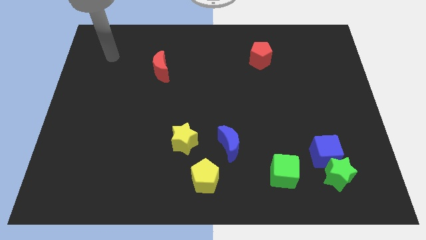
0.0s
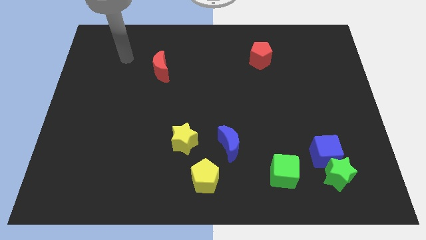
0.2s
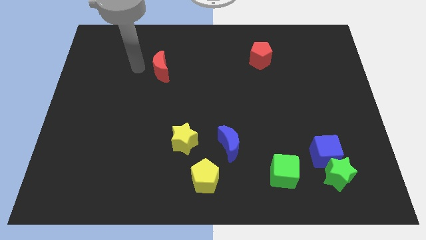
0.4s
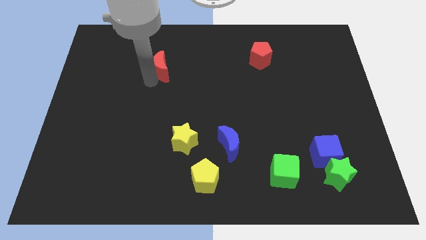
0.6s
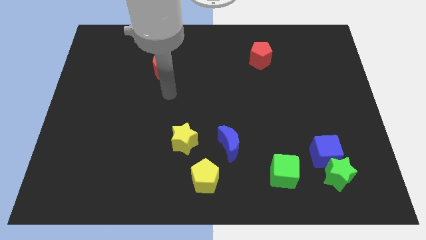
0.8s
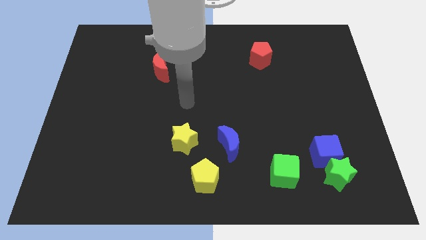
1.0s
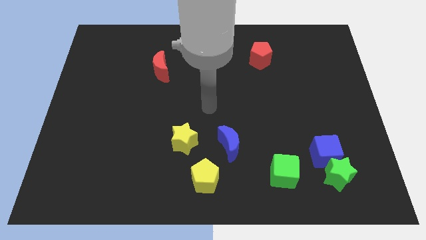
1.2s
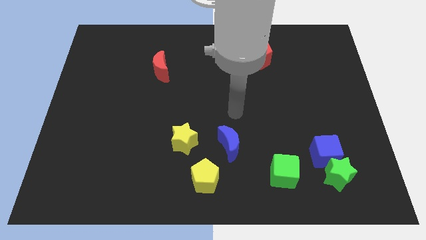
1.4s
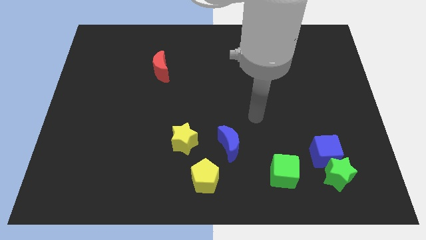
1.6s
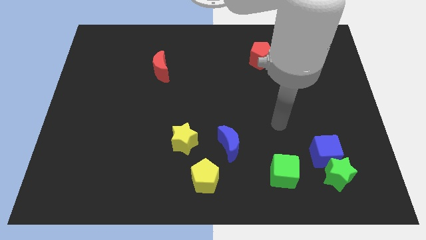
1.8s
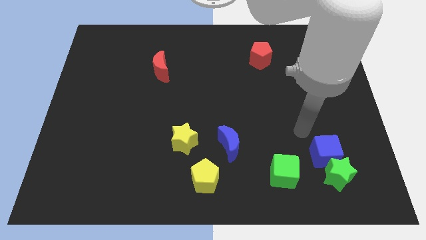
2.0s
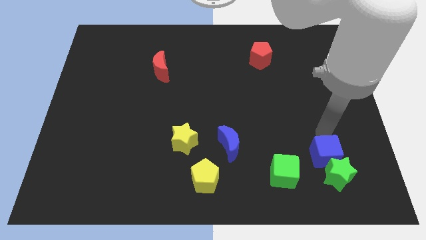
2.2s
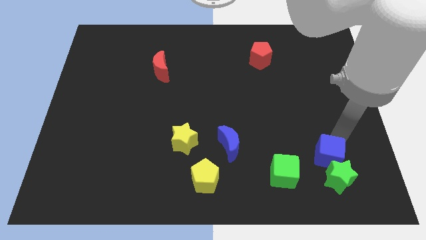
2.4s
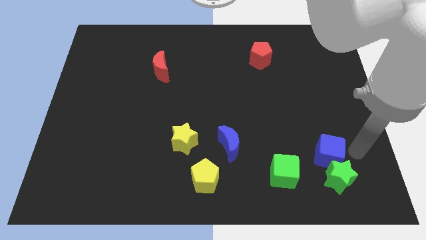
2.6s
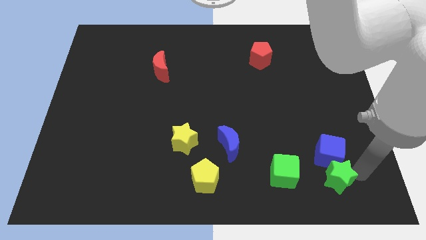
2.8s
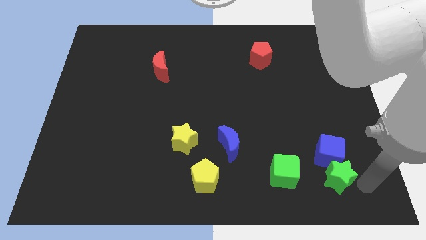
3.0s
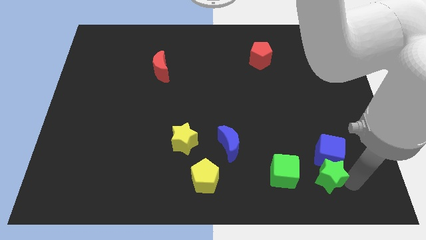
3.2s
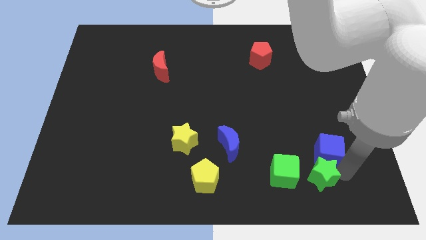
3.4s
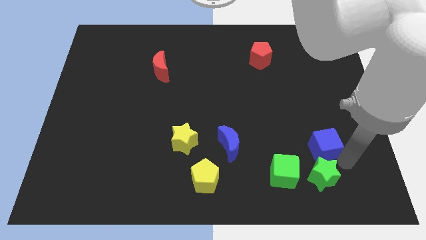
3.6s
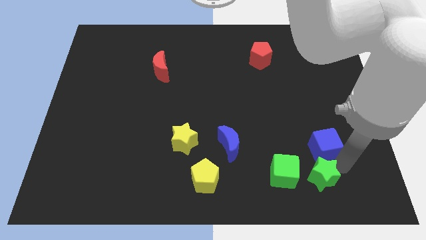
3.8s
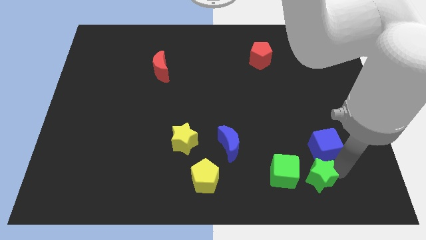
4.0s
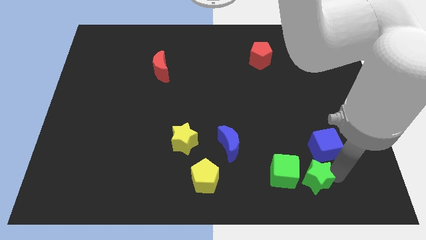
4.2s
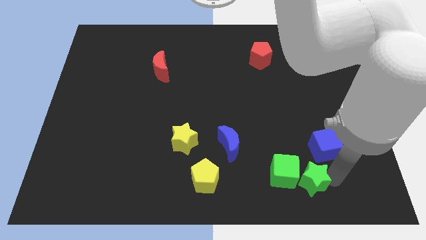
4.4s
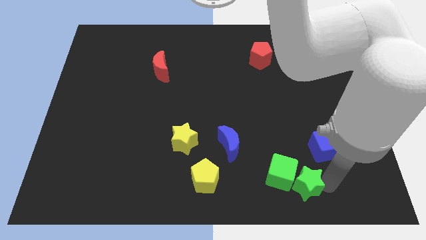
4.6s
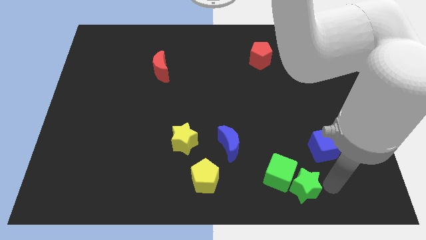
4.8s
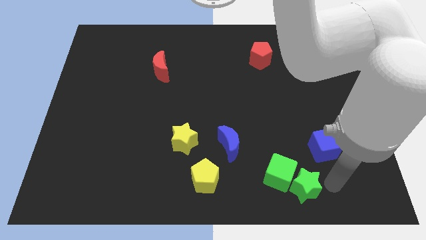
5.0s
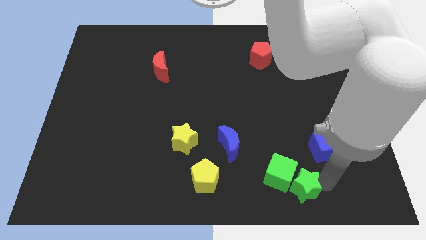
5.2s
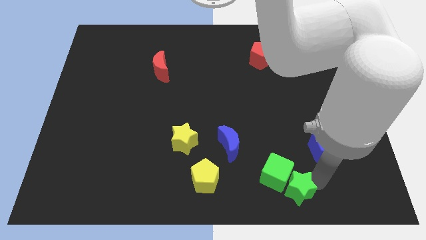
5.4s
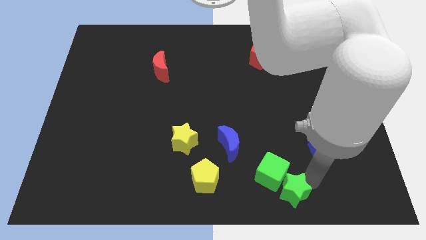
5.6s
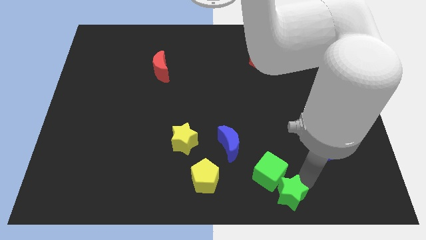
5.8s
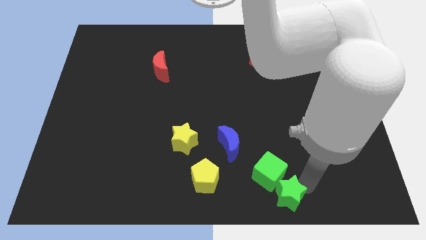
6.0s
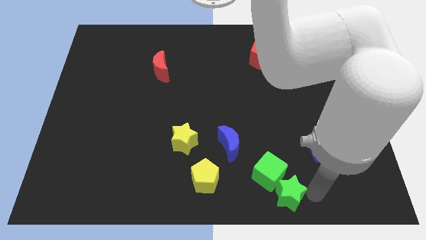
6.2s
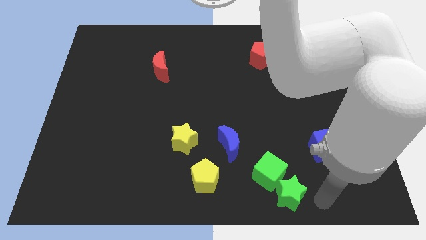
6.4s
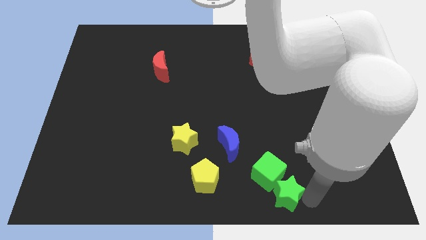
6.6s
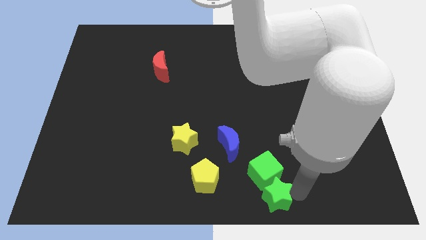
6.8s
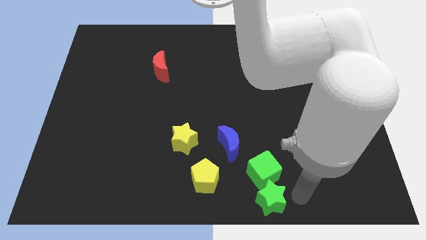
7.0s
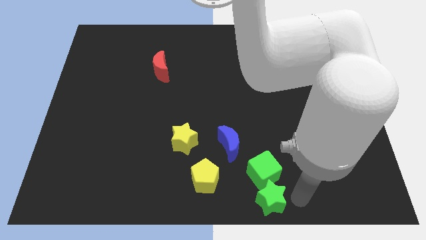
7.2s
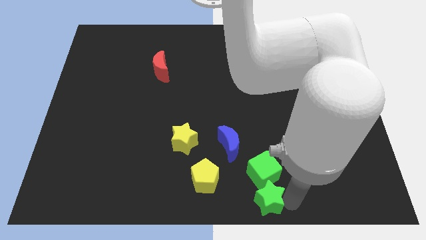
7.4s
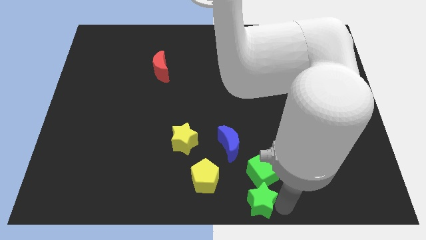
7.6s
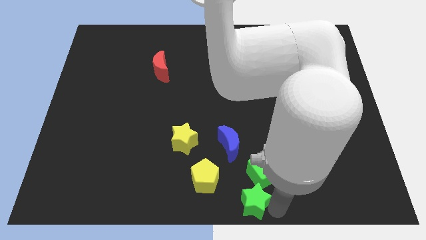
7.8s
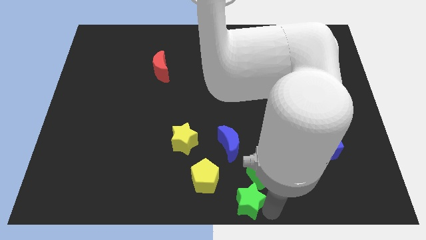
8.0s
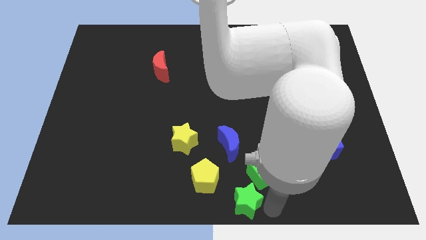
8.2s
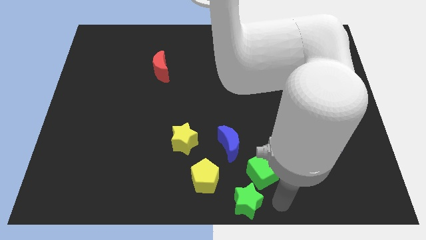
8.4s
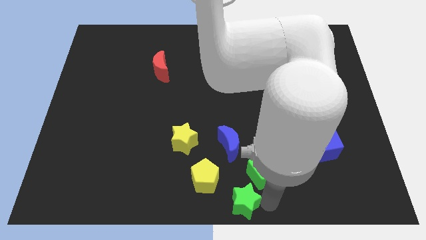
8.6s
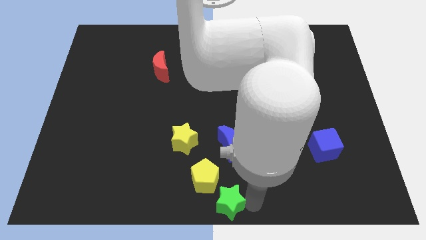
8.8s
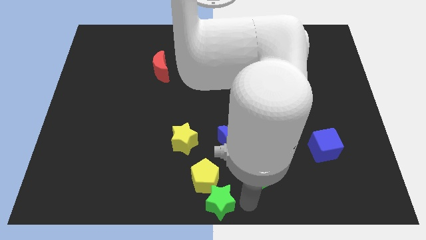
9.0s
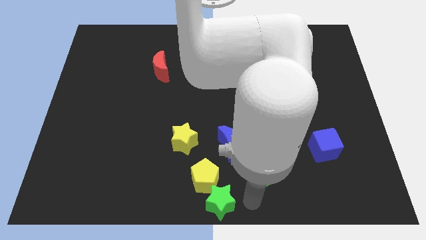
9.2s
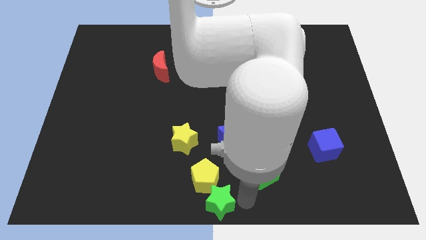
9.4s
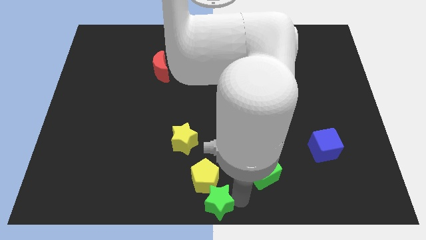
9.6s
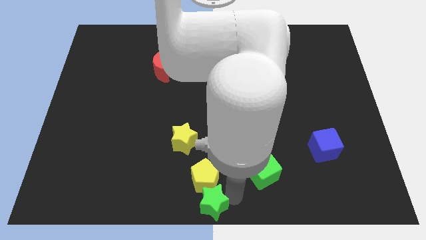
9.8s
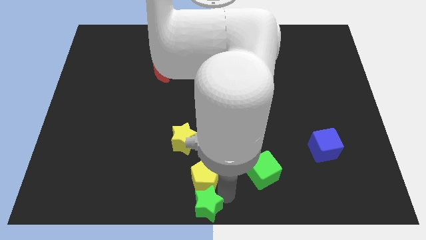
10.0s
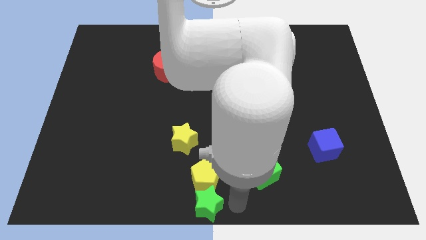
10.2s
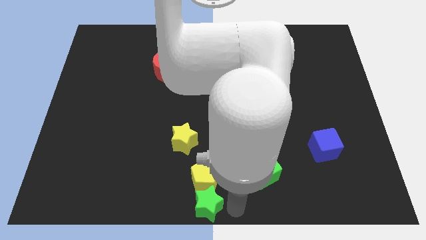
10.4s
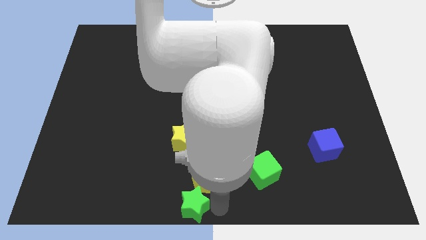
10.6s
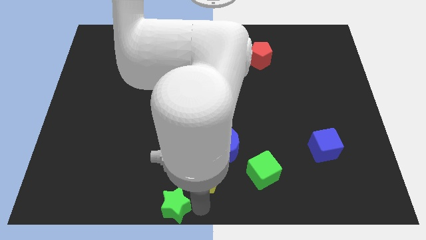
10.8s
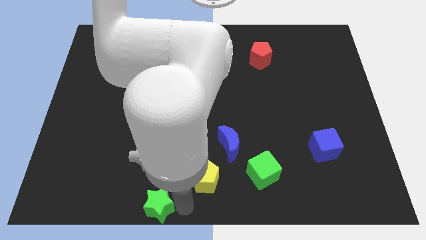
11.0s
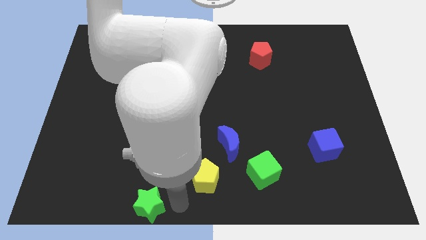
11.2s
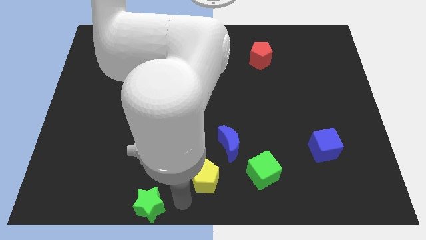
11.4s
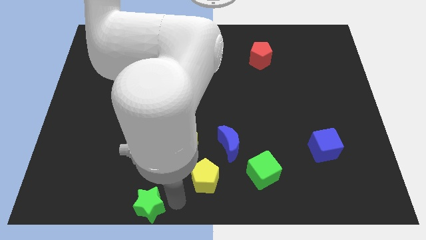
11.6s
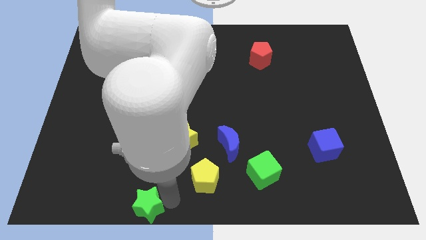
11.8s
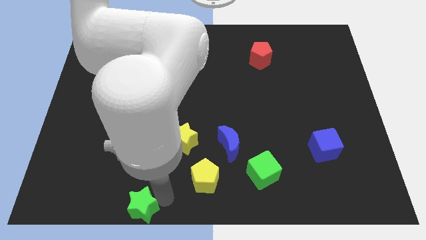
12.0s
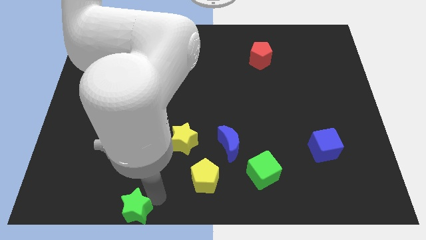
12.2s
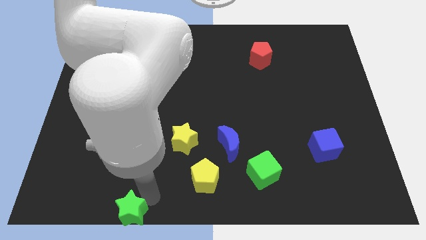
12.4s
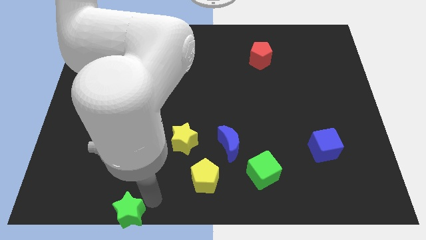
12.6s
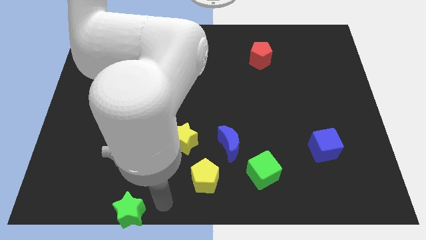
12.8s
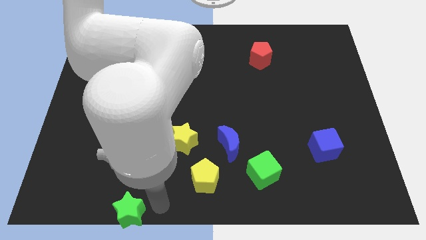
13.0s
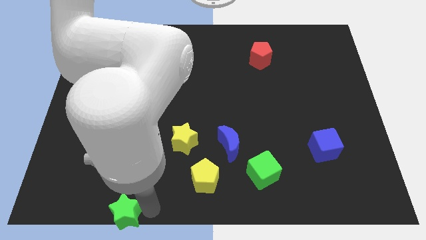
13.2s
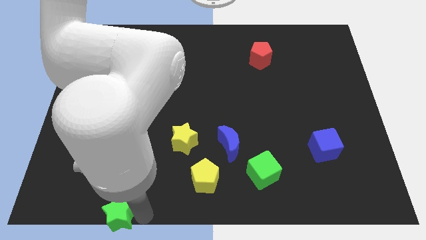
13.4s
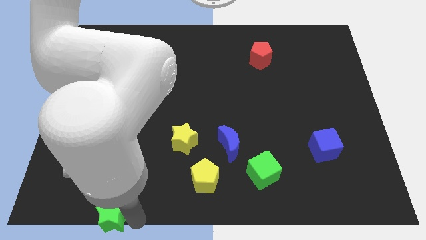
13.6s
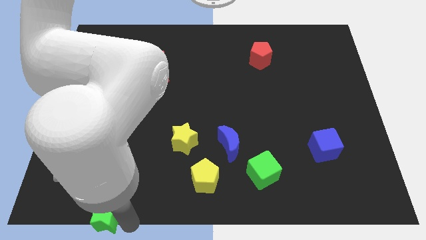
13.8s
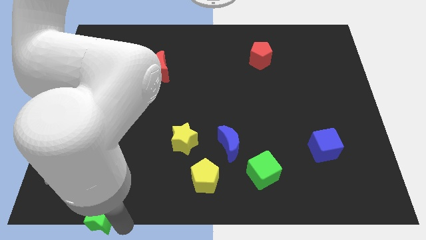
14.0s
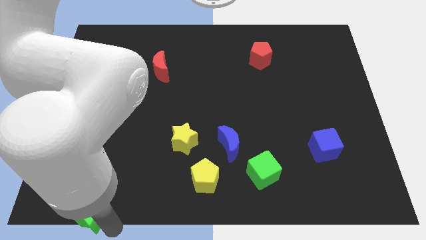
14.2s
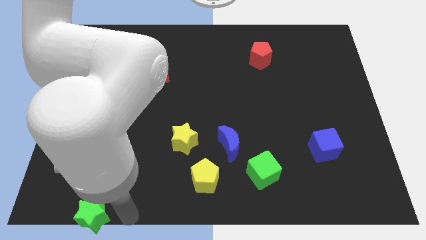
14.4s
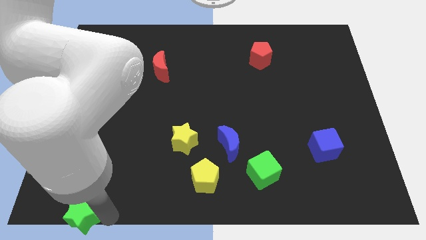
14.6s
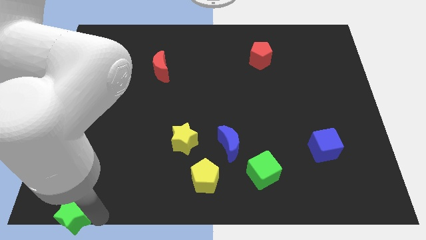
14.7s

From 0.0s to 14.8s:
put the green star to the lower left corner

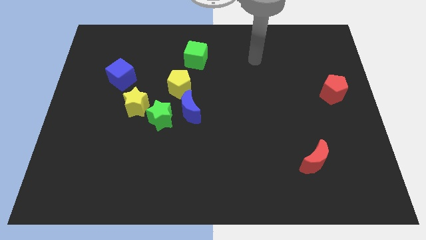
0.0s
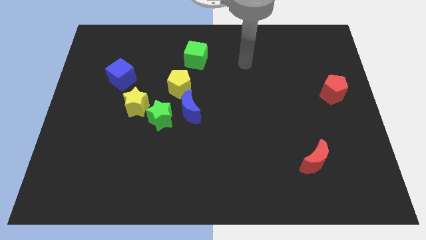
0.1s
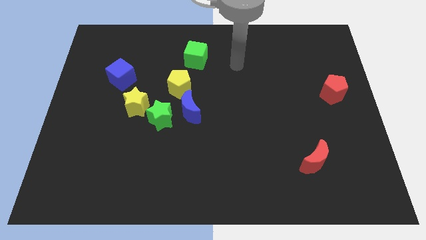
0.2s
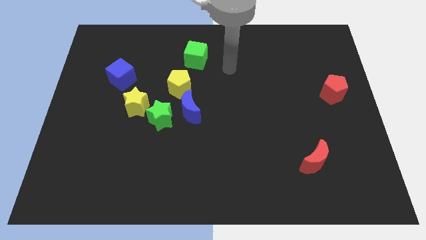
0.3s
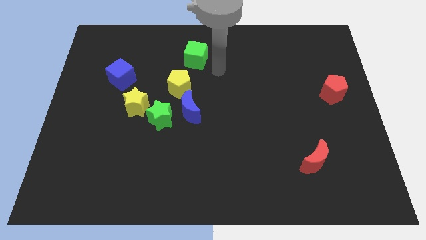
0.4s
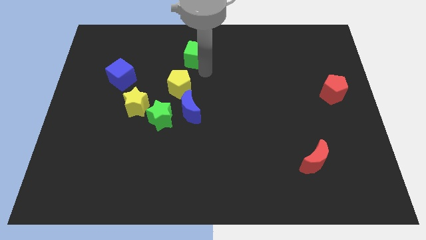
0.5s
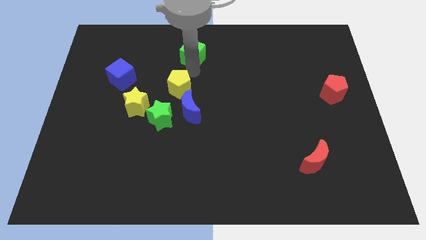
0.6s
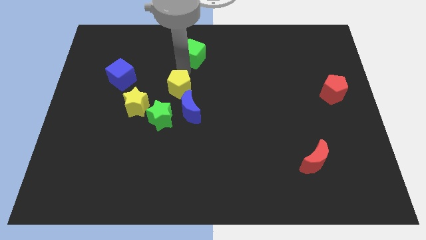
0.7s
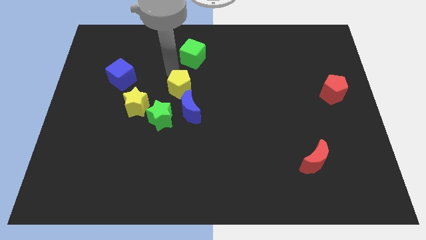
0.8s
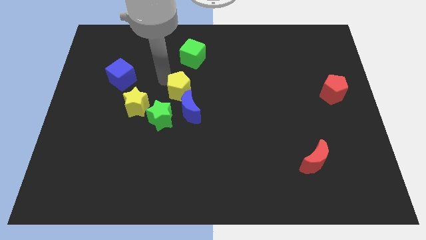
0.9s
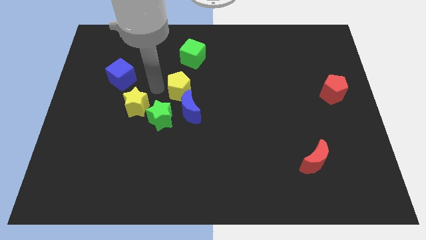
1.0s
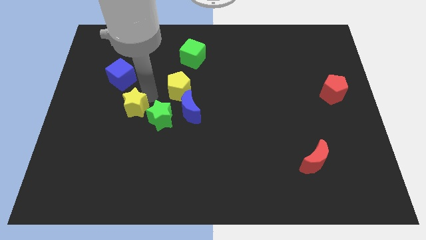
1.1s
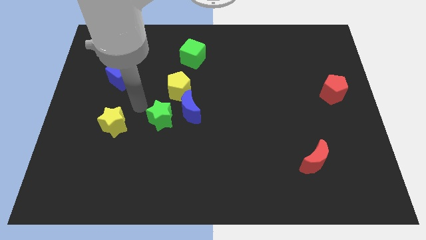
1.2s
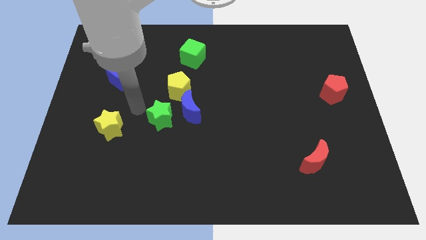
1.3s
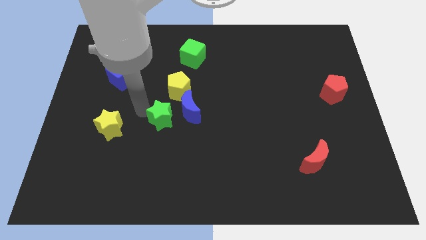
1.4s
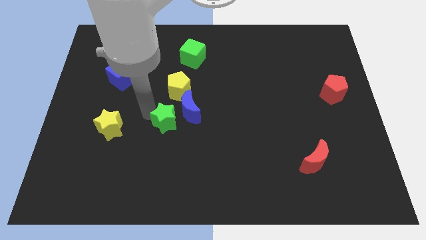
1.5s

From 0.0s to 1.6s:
slide the green star to the middle
